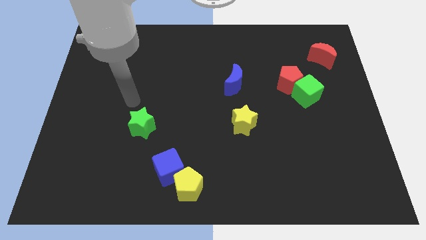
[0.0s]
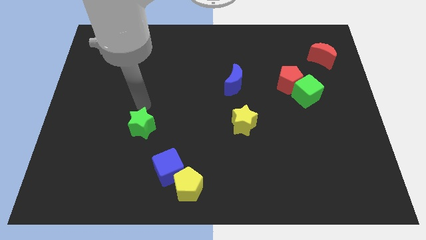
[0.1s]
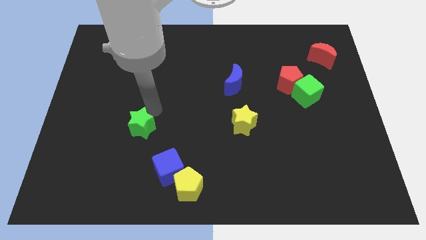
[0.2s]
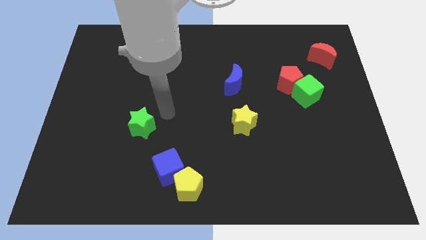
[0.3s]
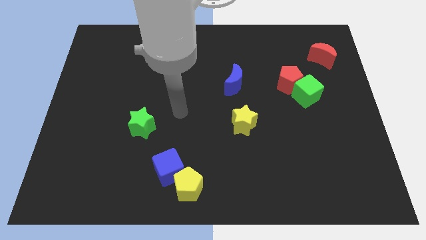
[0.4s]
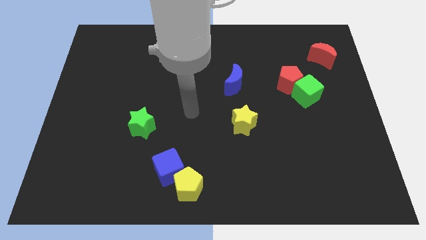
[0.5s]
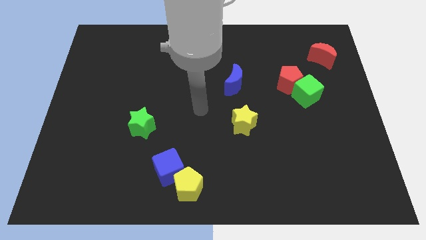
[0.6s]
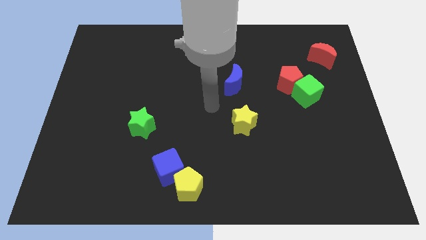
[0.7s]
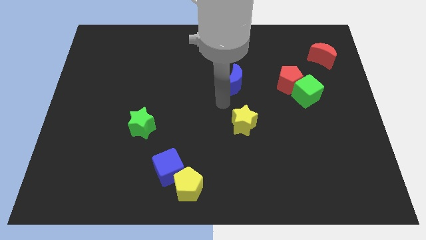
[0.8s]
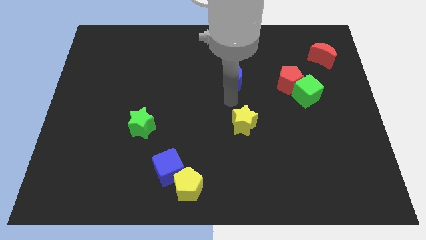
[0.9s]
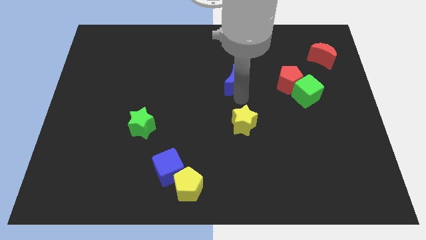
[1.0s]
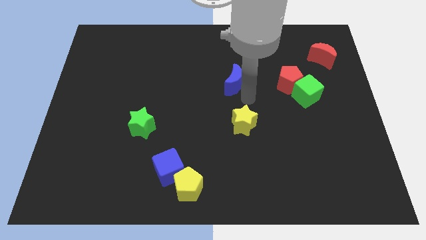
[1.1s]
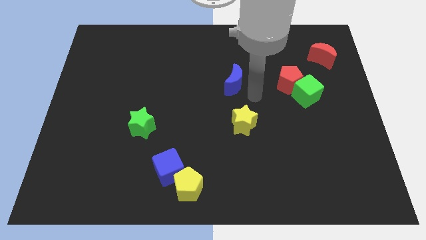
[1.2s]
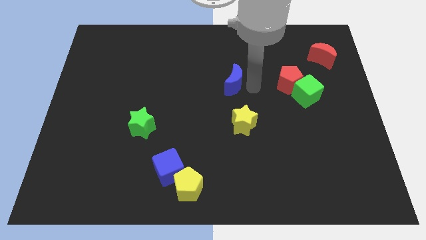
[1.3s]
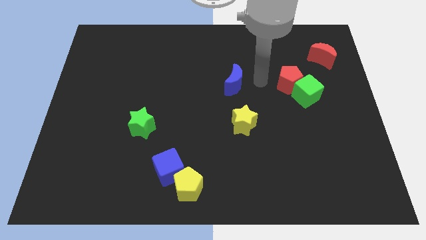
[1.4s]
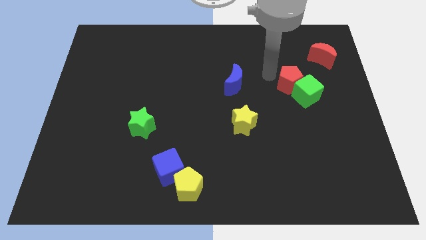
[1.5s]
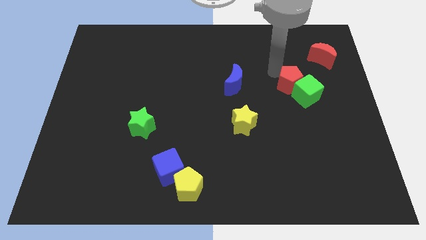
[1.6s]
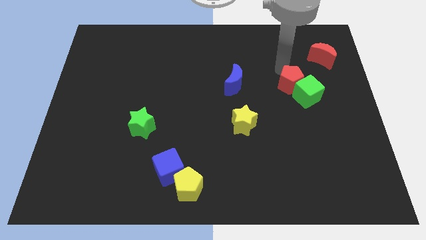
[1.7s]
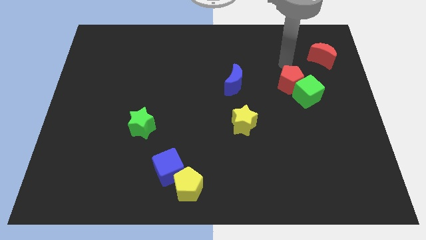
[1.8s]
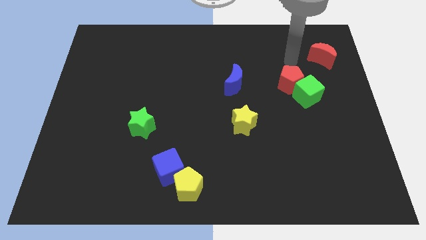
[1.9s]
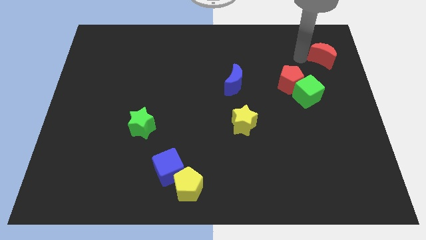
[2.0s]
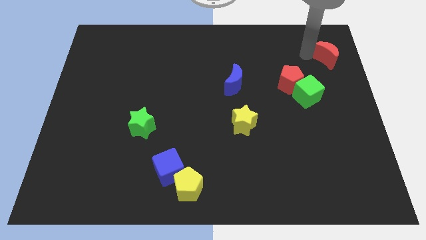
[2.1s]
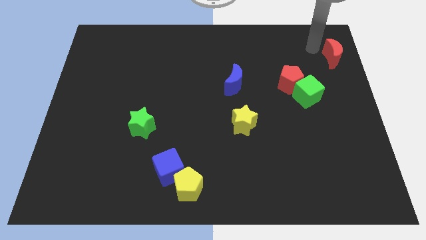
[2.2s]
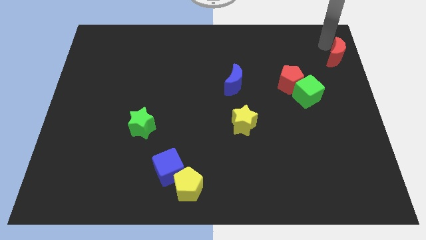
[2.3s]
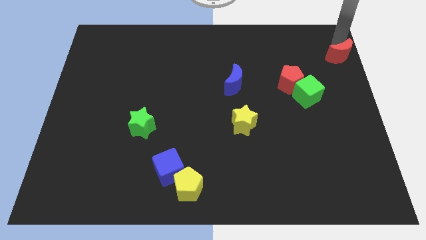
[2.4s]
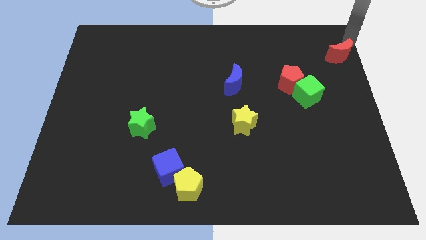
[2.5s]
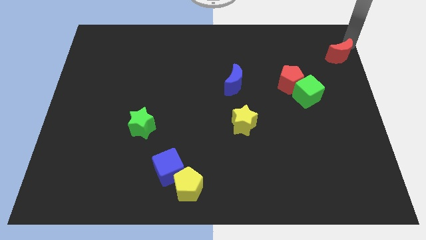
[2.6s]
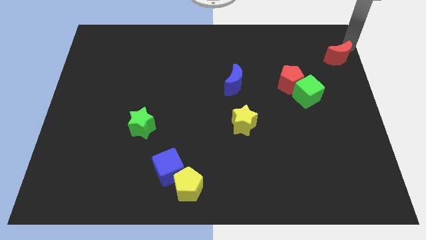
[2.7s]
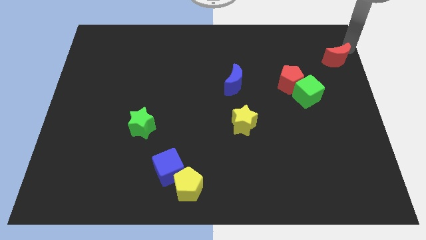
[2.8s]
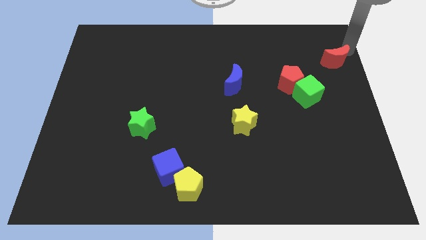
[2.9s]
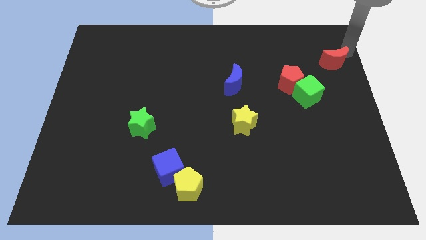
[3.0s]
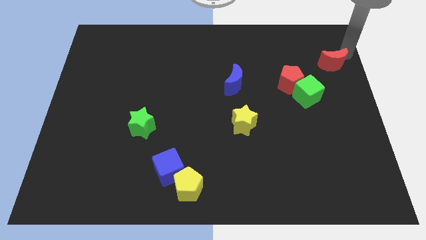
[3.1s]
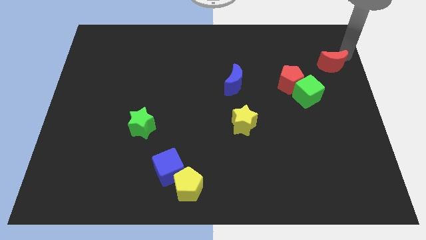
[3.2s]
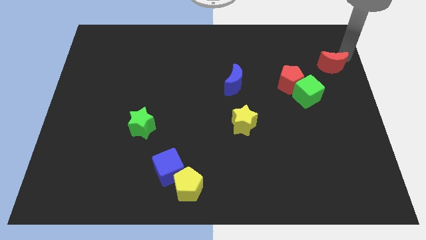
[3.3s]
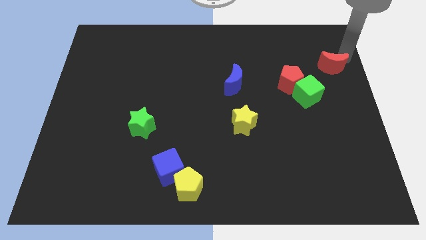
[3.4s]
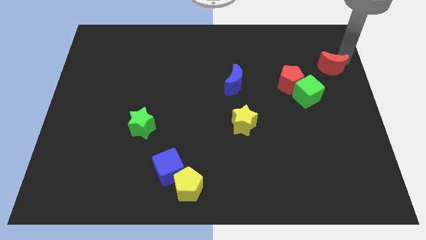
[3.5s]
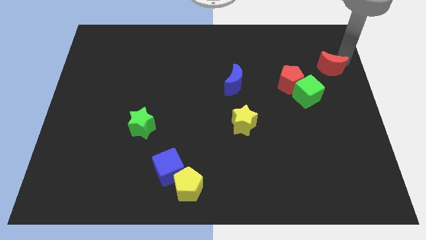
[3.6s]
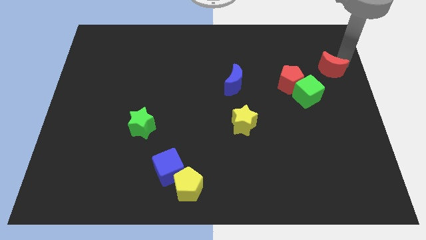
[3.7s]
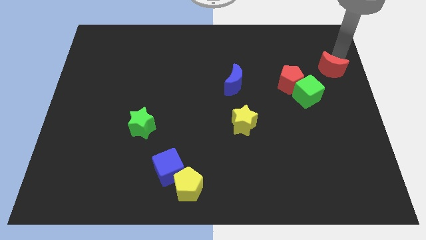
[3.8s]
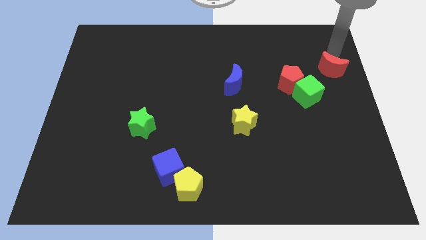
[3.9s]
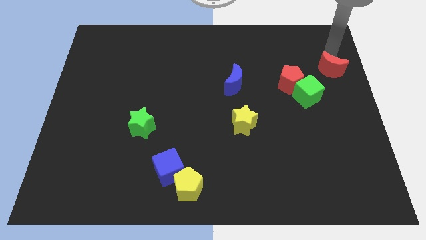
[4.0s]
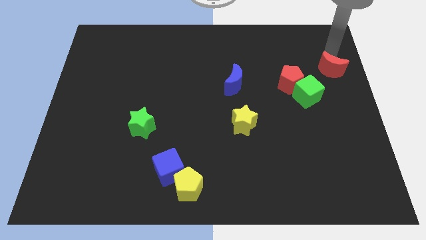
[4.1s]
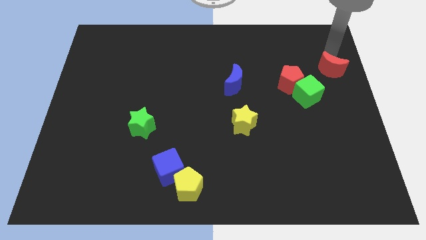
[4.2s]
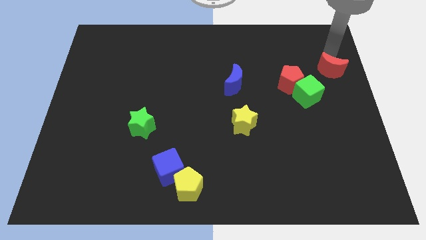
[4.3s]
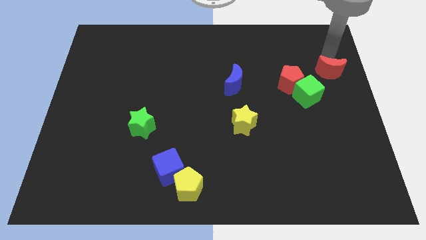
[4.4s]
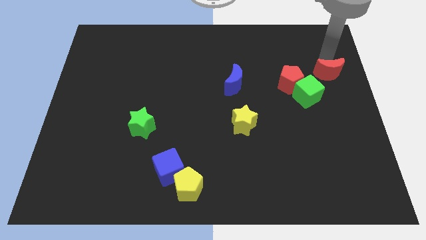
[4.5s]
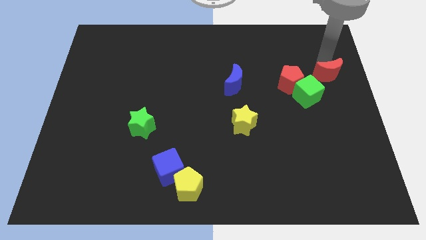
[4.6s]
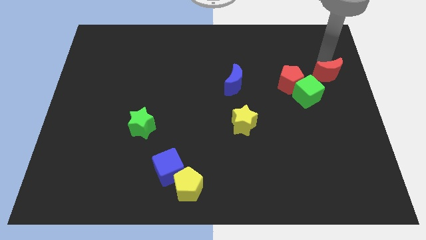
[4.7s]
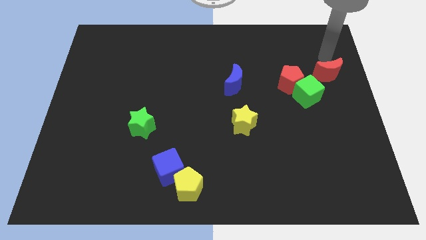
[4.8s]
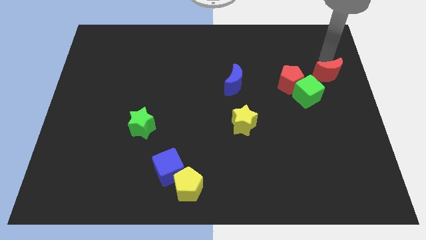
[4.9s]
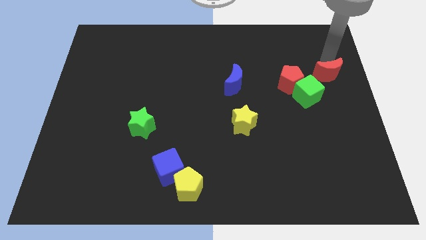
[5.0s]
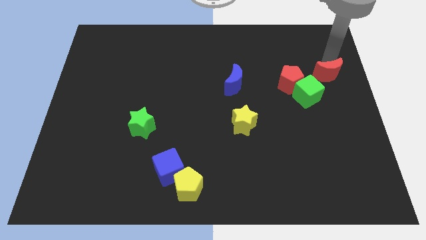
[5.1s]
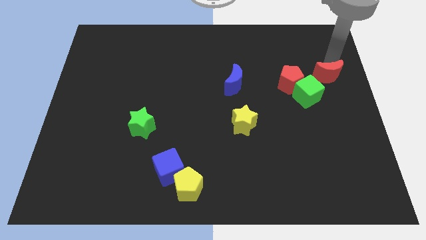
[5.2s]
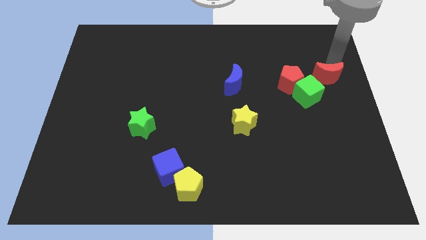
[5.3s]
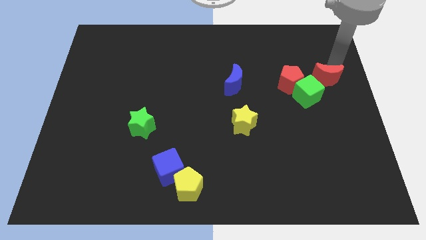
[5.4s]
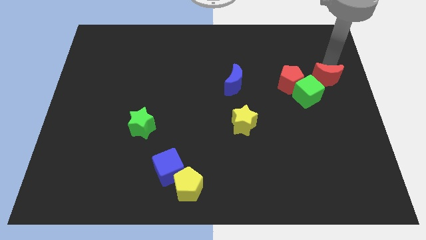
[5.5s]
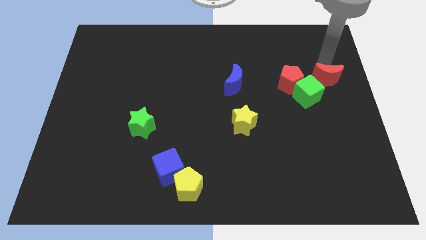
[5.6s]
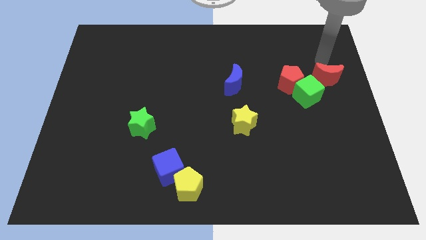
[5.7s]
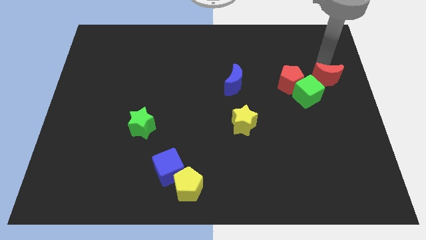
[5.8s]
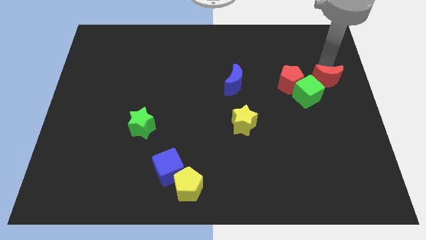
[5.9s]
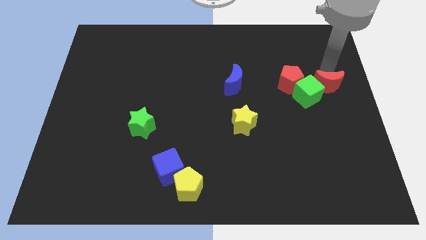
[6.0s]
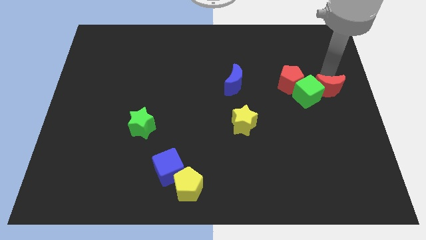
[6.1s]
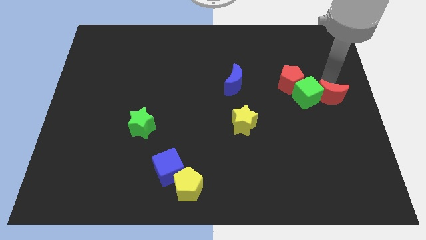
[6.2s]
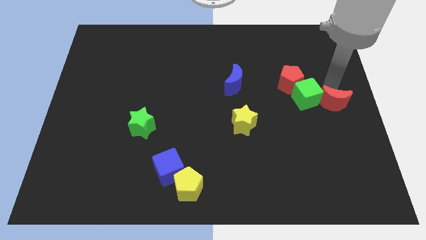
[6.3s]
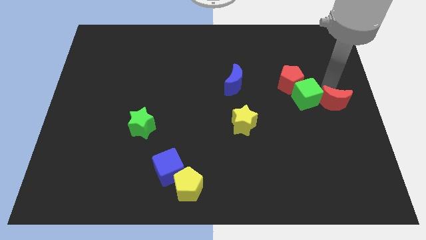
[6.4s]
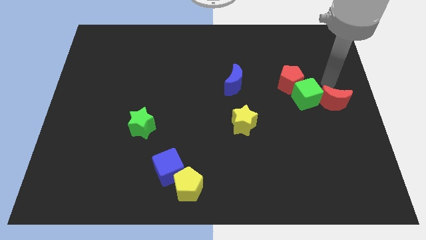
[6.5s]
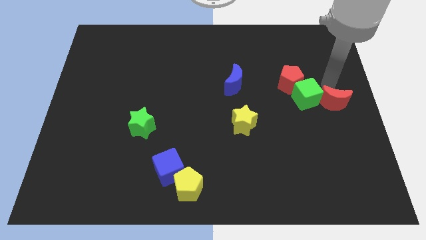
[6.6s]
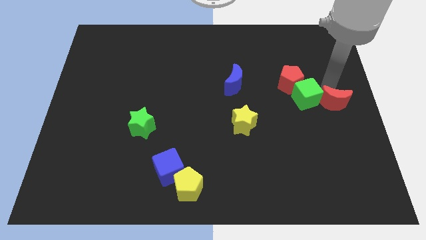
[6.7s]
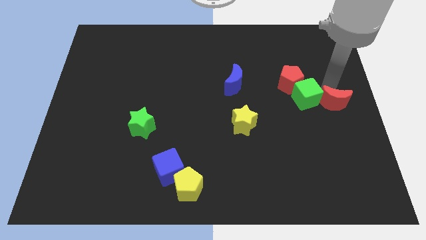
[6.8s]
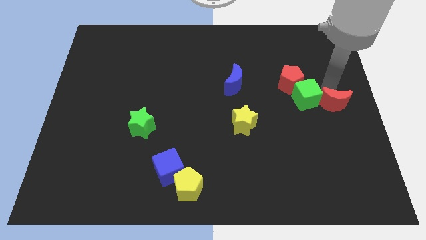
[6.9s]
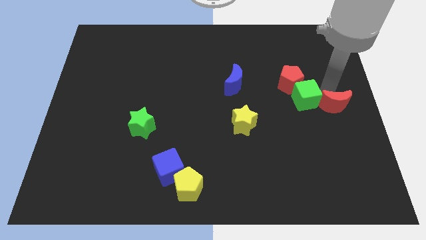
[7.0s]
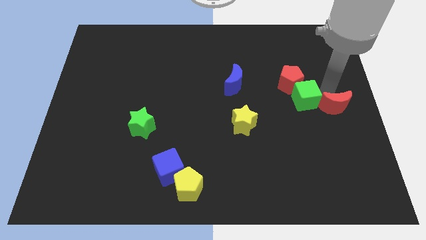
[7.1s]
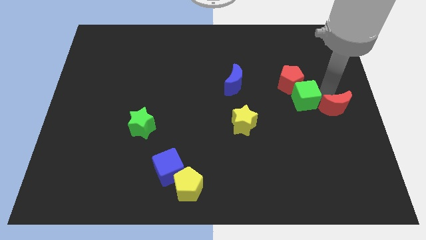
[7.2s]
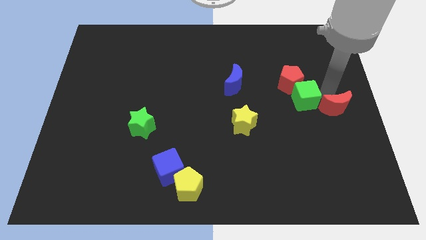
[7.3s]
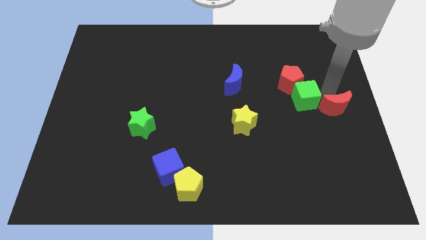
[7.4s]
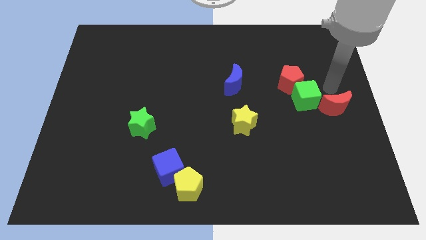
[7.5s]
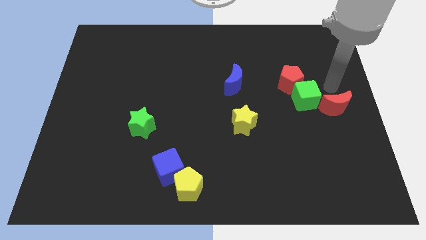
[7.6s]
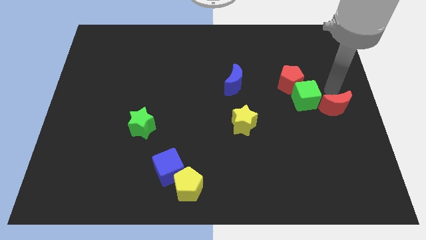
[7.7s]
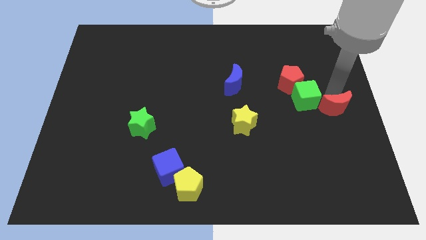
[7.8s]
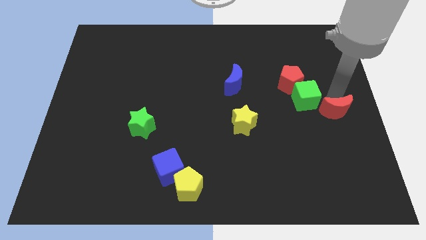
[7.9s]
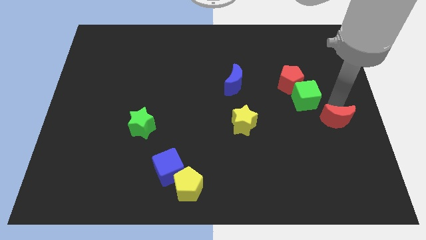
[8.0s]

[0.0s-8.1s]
slide the red moon down
